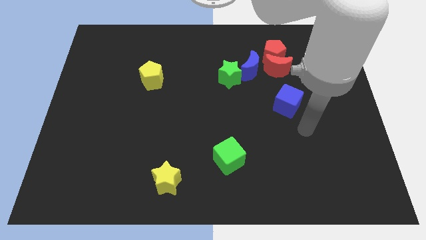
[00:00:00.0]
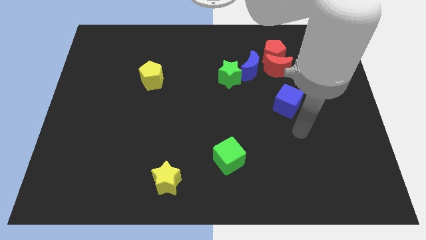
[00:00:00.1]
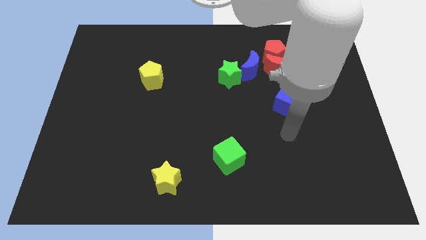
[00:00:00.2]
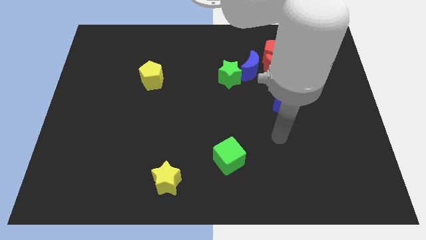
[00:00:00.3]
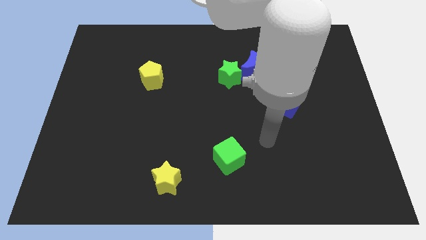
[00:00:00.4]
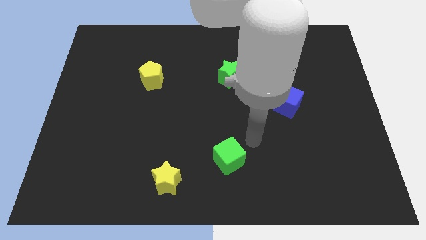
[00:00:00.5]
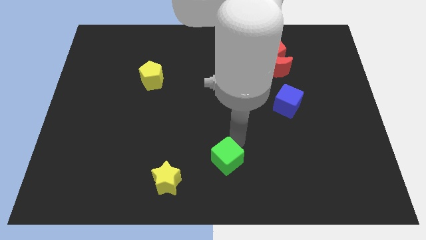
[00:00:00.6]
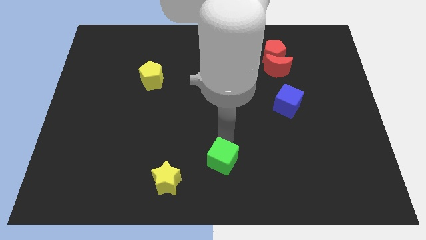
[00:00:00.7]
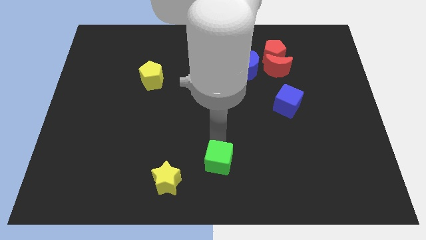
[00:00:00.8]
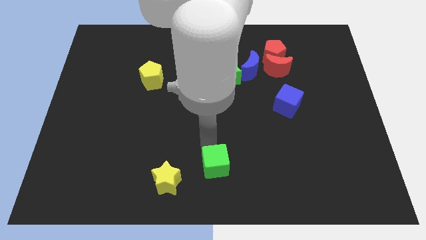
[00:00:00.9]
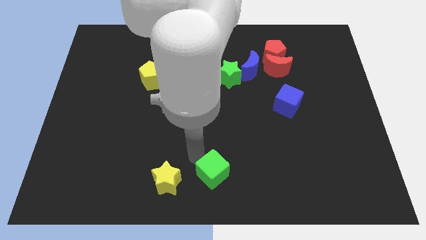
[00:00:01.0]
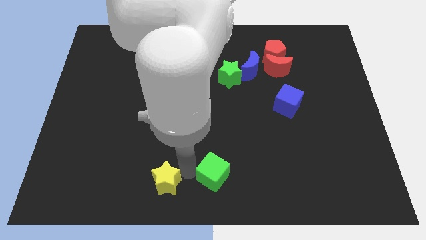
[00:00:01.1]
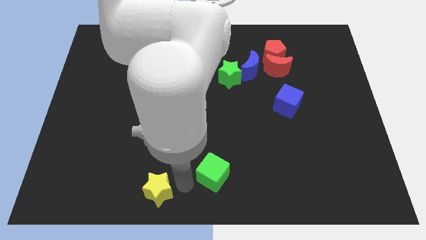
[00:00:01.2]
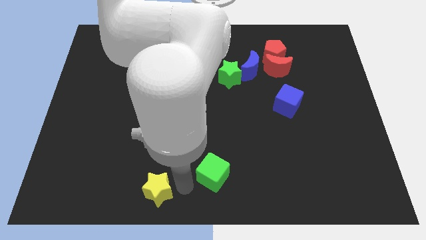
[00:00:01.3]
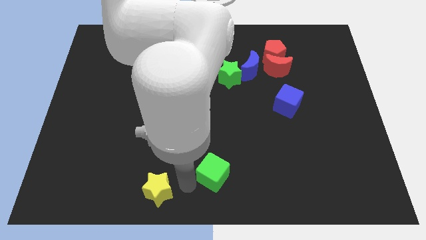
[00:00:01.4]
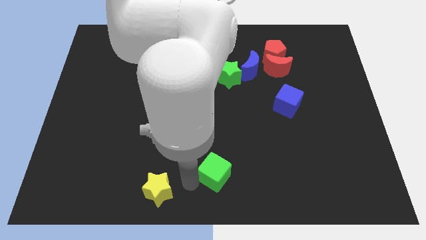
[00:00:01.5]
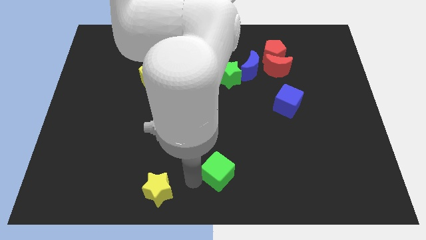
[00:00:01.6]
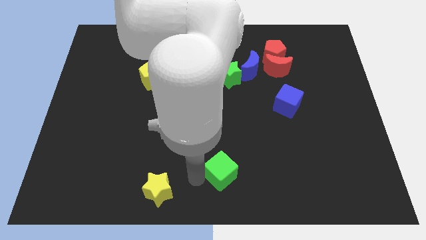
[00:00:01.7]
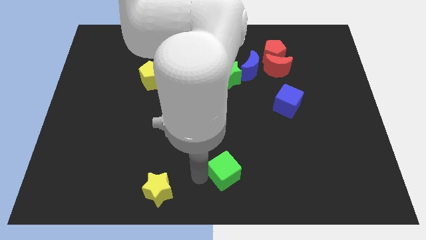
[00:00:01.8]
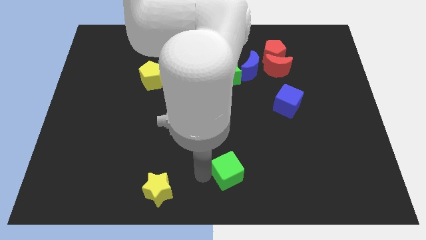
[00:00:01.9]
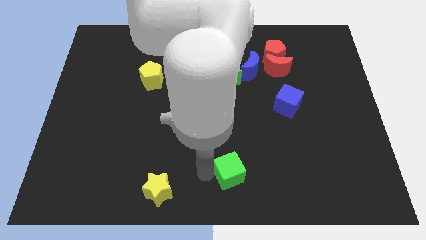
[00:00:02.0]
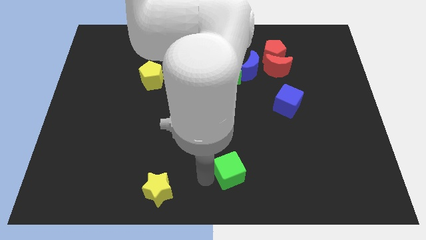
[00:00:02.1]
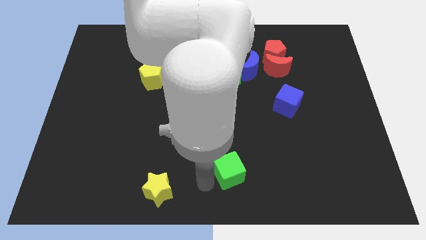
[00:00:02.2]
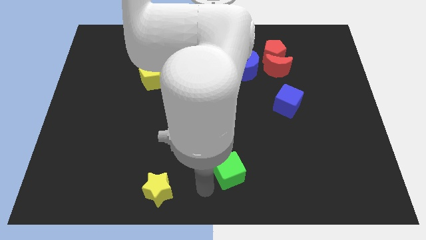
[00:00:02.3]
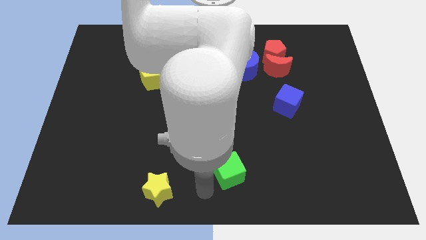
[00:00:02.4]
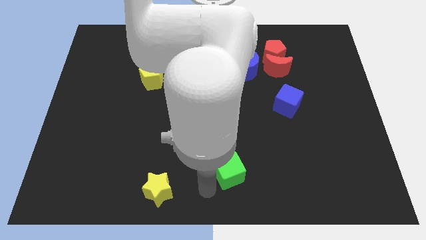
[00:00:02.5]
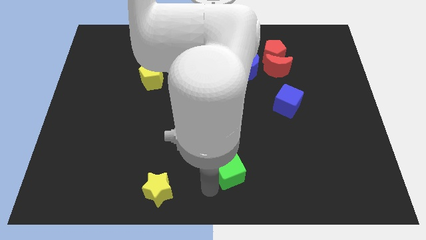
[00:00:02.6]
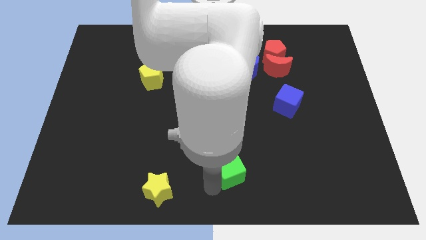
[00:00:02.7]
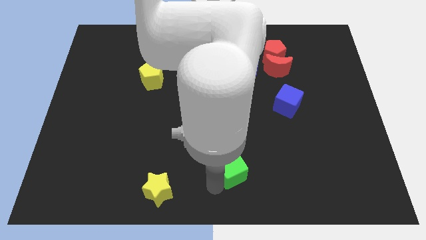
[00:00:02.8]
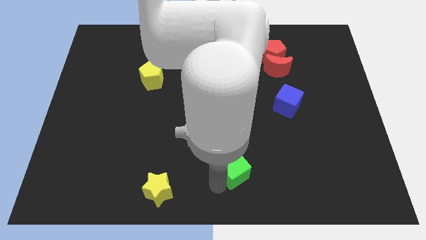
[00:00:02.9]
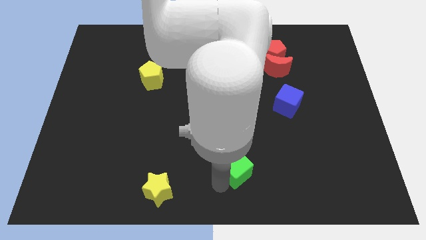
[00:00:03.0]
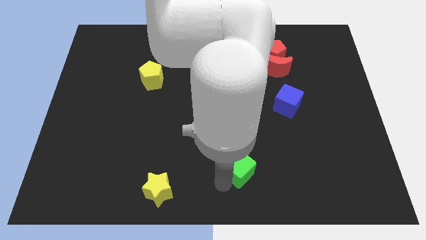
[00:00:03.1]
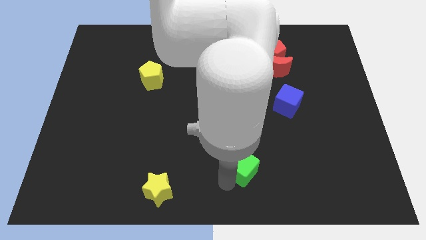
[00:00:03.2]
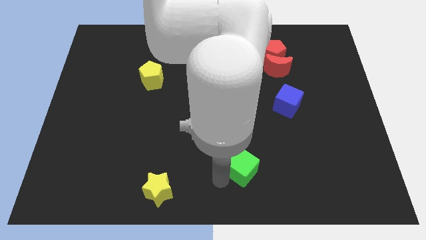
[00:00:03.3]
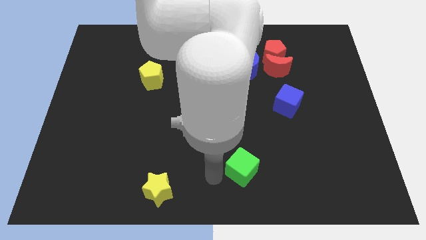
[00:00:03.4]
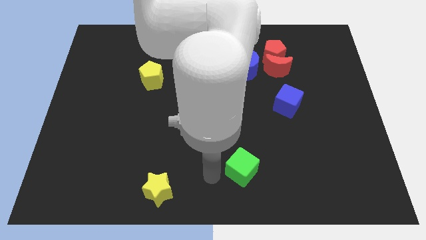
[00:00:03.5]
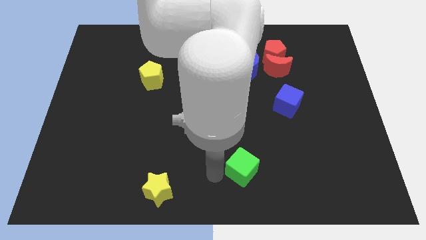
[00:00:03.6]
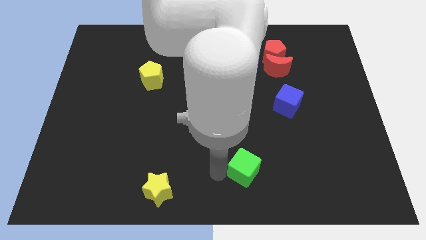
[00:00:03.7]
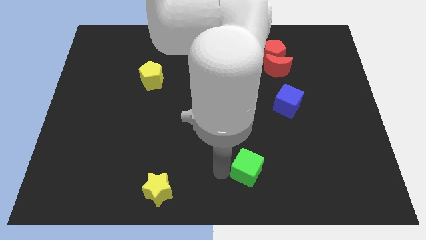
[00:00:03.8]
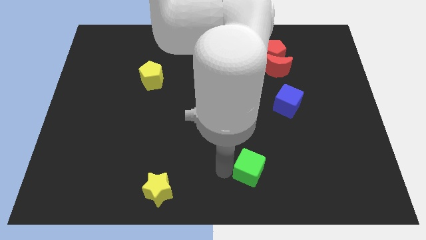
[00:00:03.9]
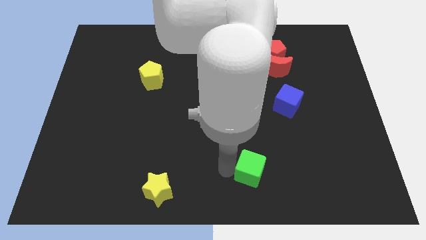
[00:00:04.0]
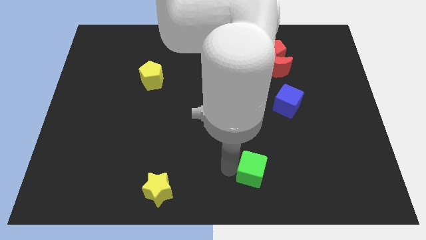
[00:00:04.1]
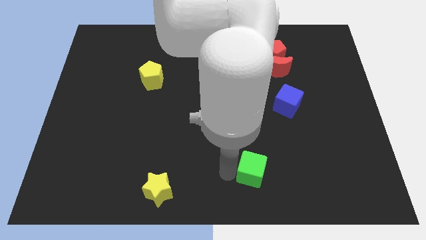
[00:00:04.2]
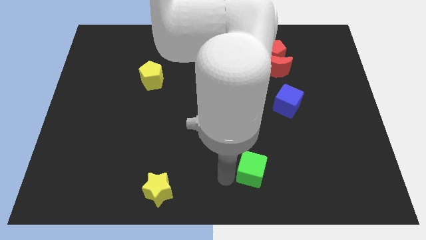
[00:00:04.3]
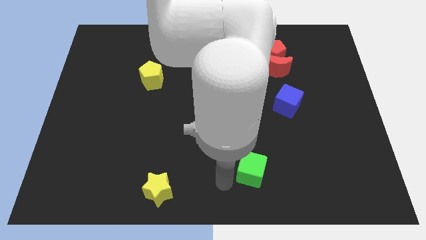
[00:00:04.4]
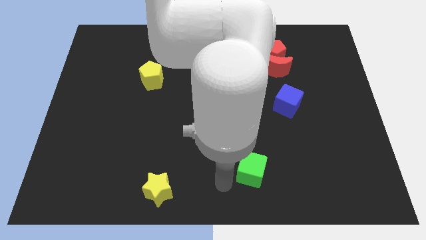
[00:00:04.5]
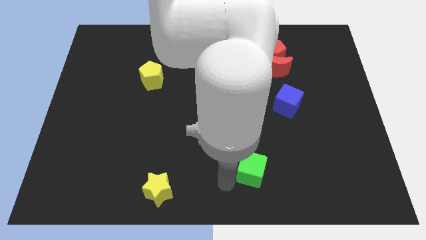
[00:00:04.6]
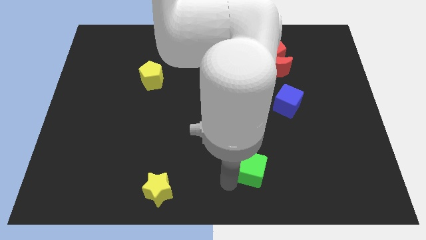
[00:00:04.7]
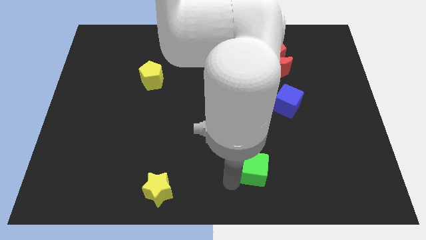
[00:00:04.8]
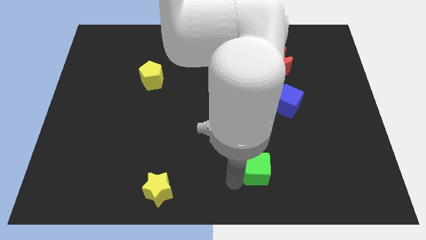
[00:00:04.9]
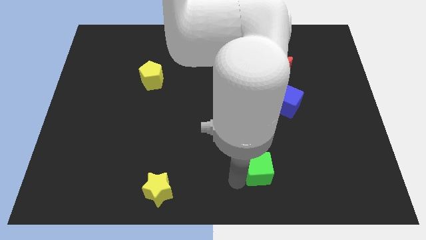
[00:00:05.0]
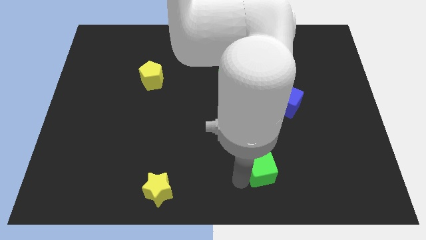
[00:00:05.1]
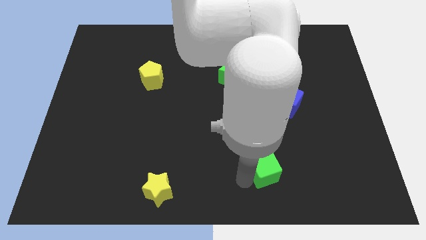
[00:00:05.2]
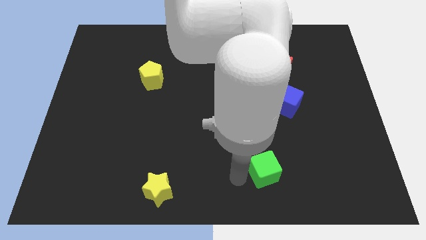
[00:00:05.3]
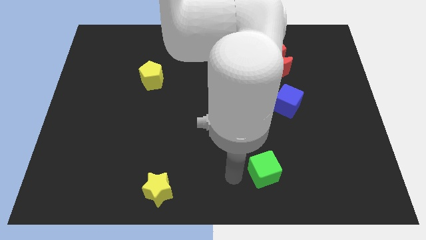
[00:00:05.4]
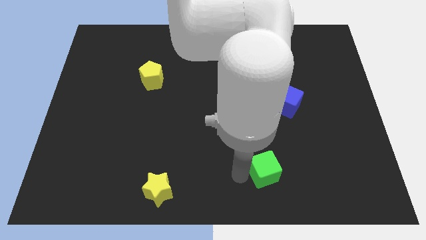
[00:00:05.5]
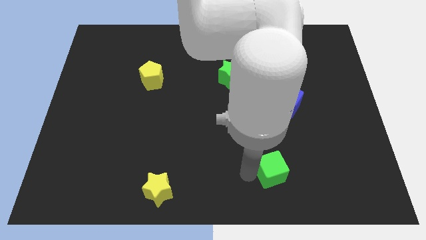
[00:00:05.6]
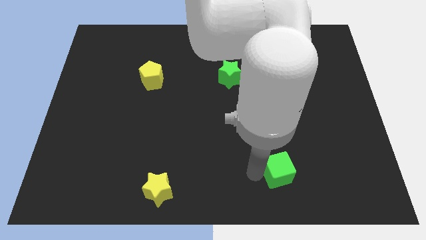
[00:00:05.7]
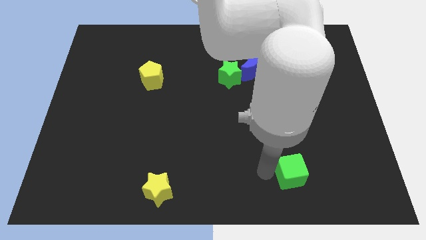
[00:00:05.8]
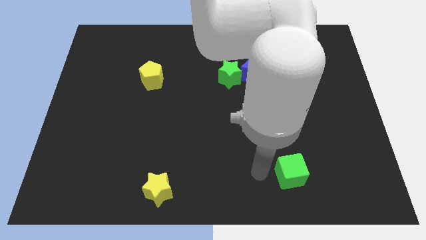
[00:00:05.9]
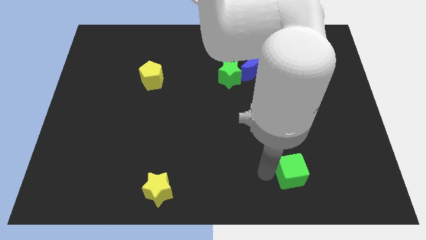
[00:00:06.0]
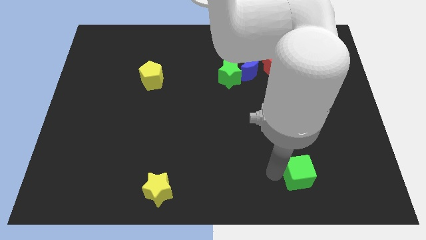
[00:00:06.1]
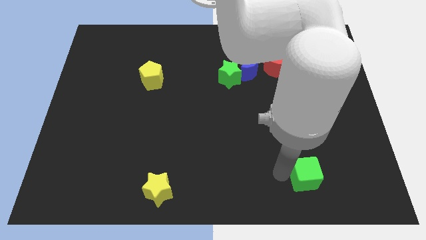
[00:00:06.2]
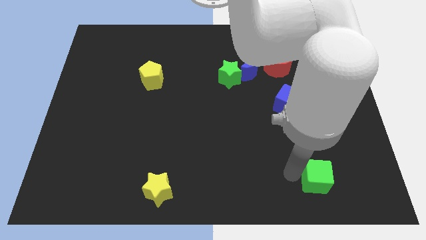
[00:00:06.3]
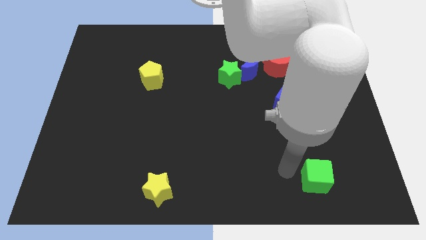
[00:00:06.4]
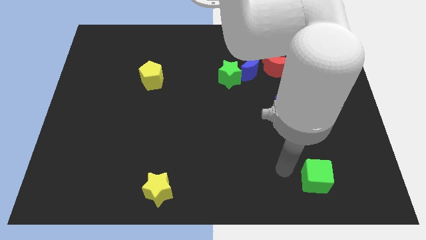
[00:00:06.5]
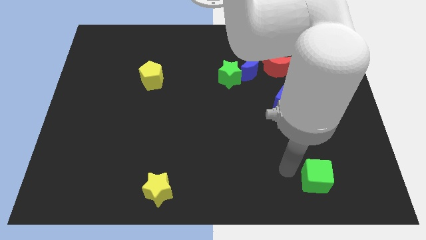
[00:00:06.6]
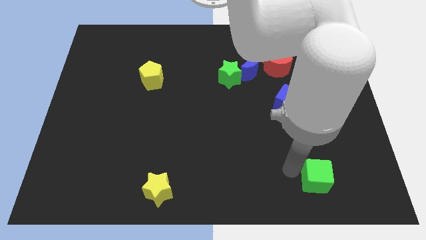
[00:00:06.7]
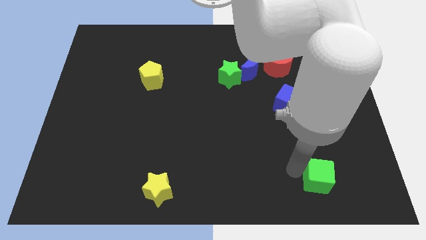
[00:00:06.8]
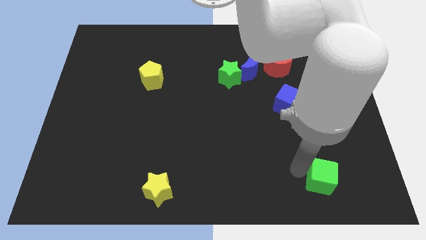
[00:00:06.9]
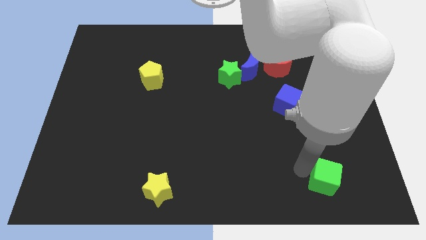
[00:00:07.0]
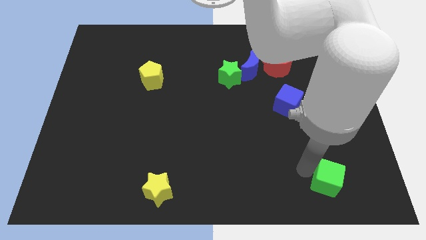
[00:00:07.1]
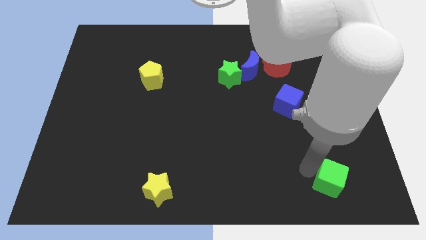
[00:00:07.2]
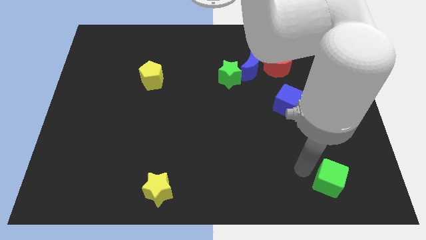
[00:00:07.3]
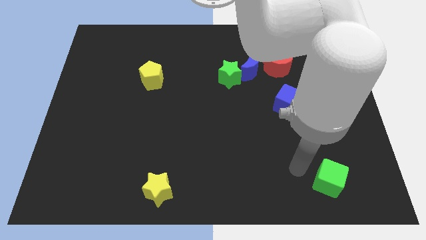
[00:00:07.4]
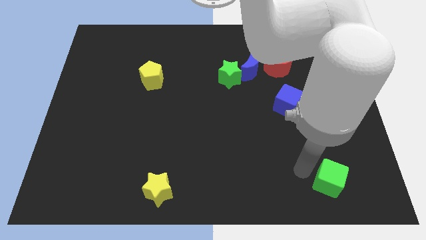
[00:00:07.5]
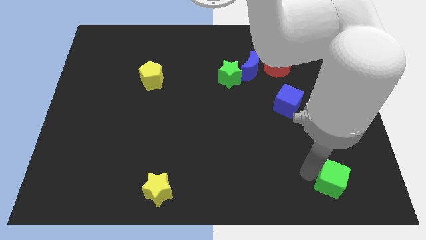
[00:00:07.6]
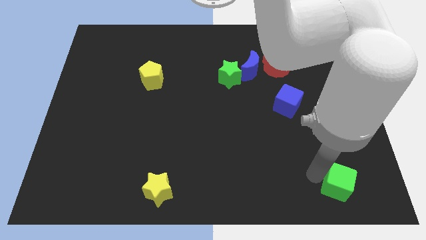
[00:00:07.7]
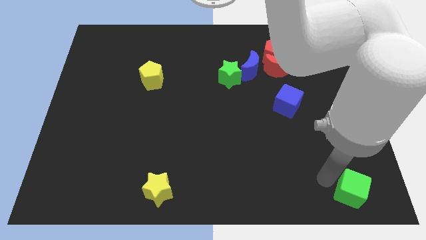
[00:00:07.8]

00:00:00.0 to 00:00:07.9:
push the green cube to the bottom right of the board
